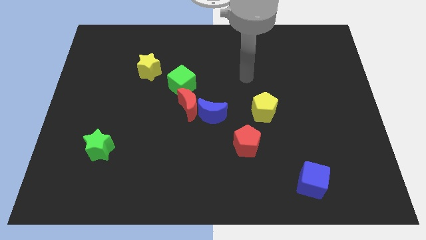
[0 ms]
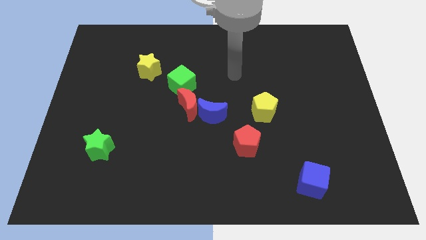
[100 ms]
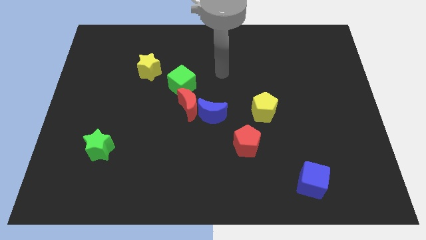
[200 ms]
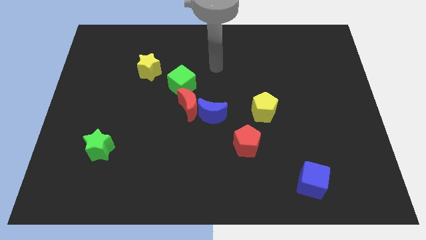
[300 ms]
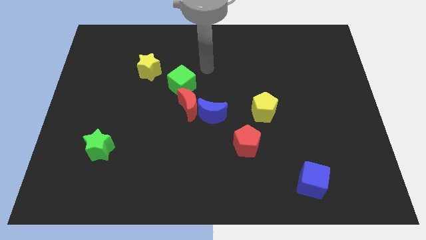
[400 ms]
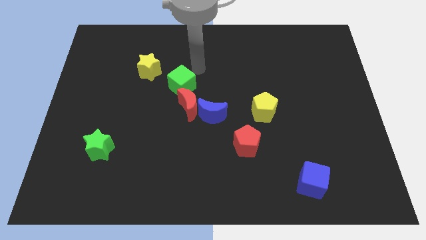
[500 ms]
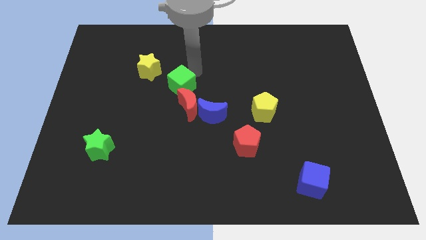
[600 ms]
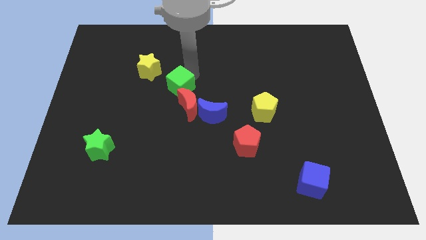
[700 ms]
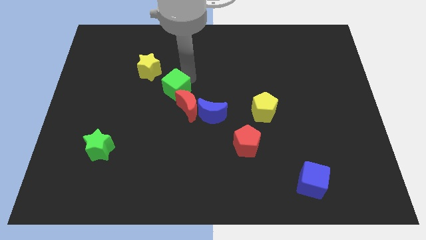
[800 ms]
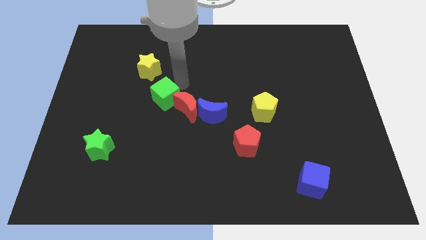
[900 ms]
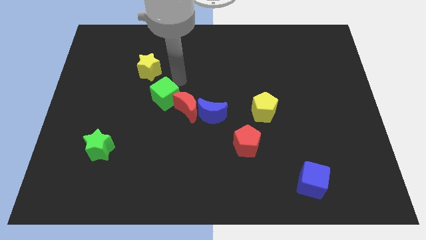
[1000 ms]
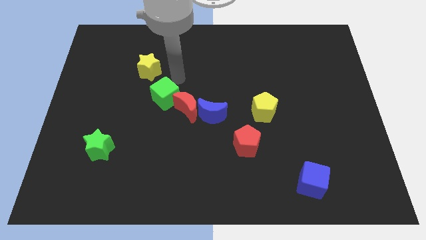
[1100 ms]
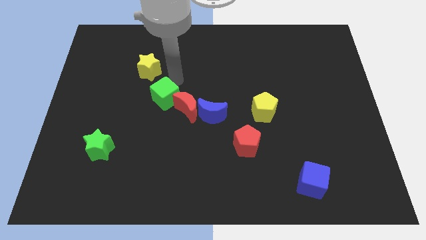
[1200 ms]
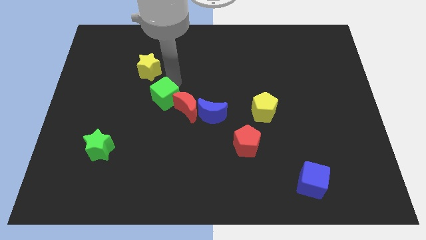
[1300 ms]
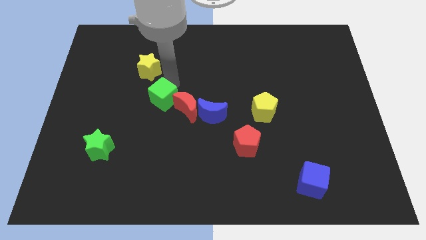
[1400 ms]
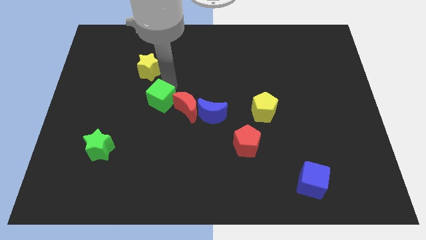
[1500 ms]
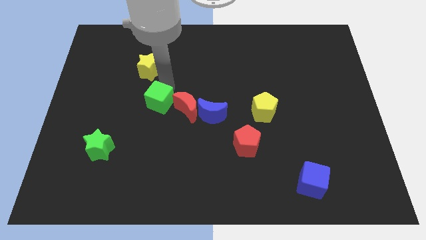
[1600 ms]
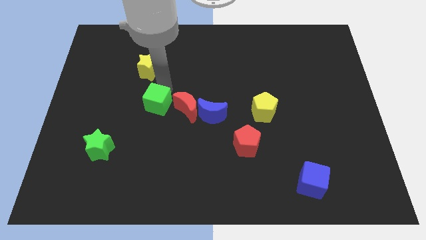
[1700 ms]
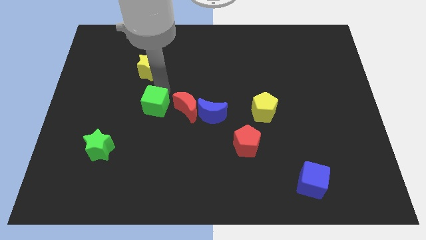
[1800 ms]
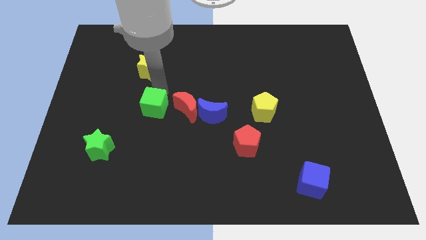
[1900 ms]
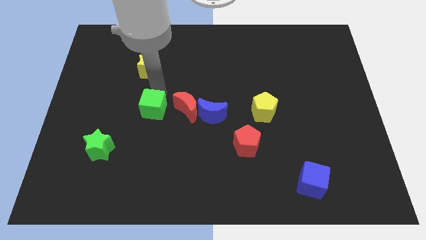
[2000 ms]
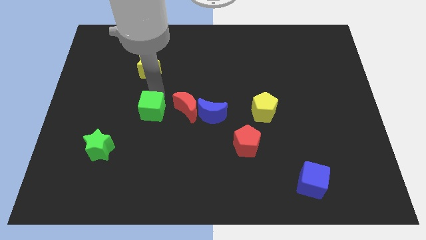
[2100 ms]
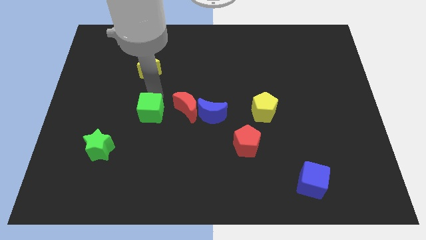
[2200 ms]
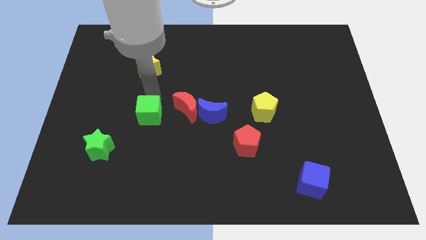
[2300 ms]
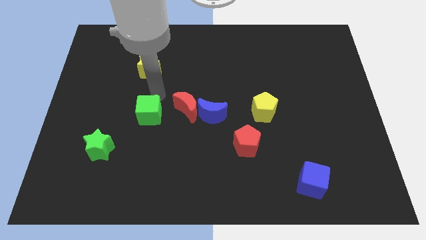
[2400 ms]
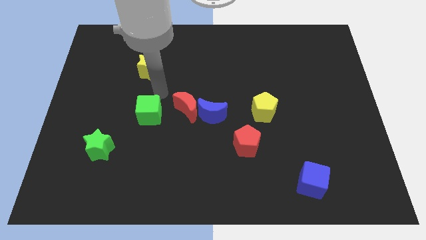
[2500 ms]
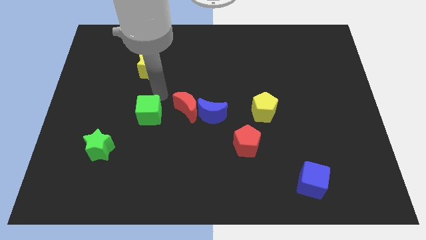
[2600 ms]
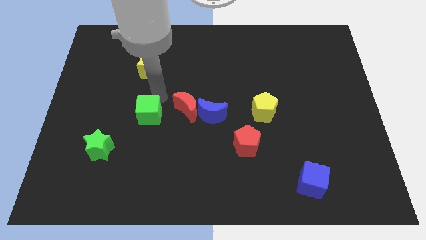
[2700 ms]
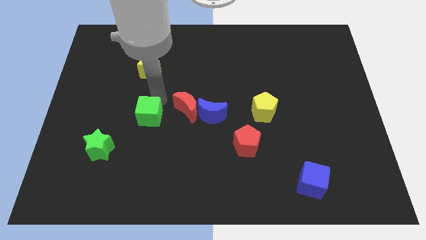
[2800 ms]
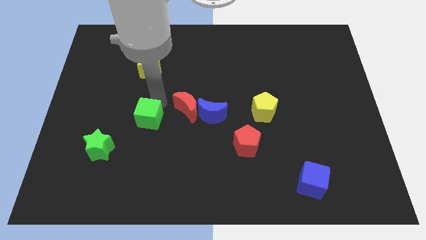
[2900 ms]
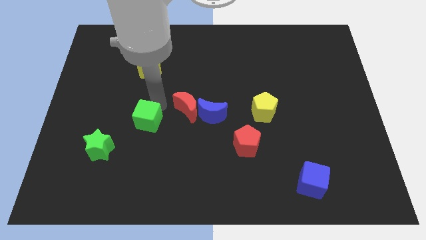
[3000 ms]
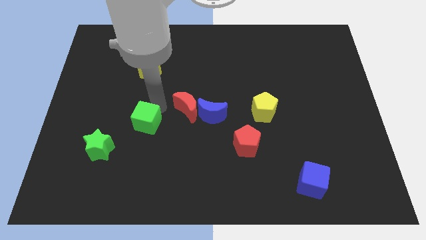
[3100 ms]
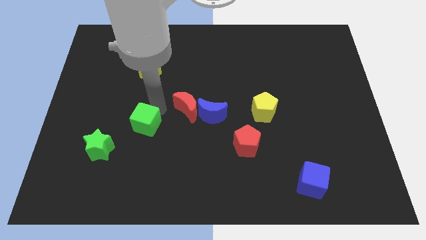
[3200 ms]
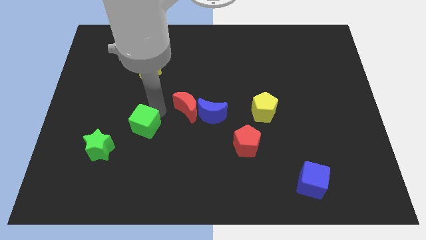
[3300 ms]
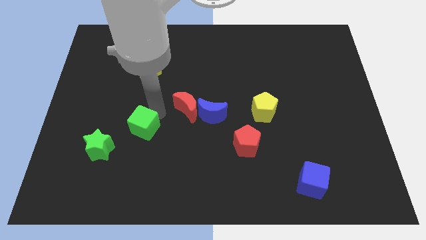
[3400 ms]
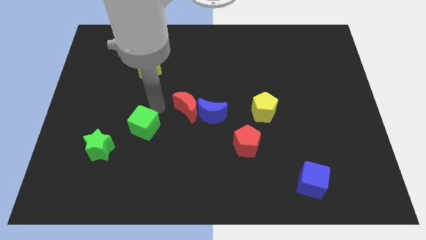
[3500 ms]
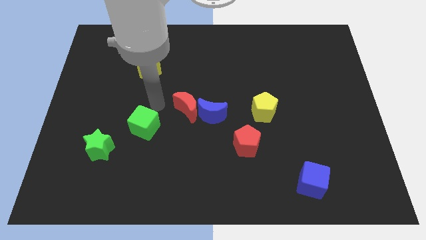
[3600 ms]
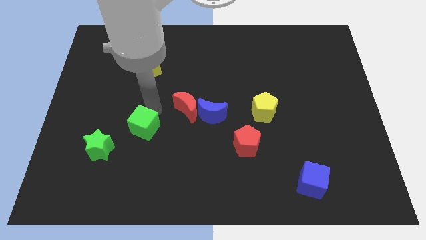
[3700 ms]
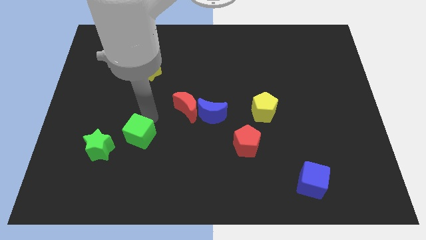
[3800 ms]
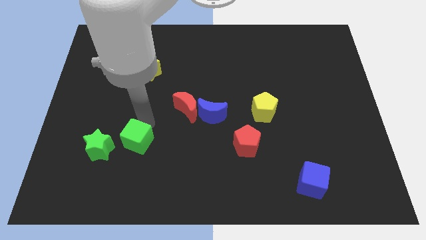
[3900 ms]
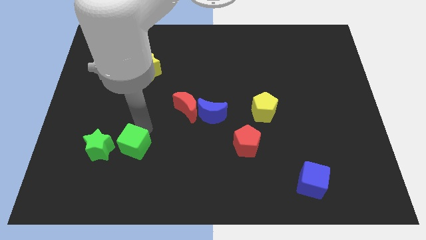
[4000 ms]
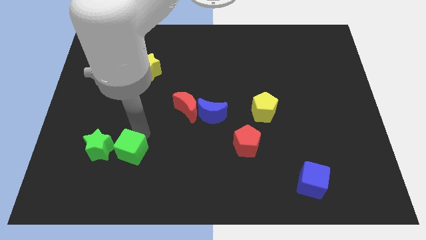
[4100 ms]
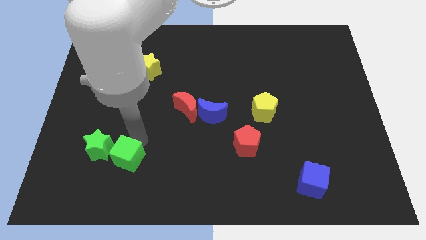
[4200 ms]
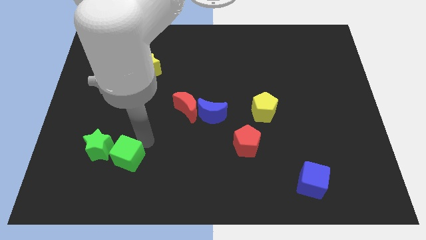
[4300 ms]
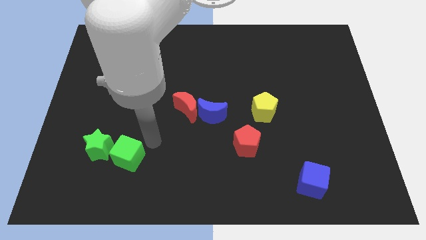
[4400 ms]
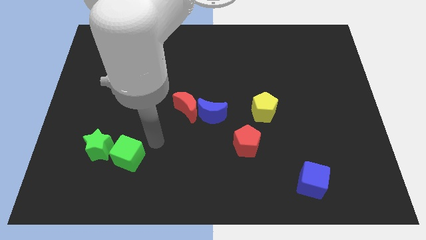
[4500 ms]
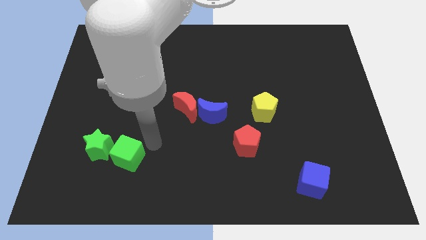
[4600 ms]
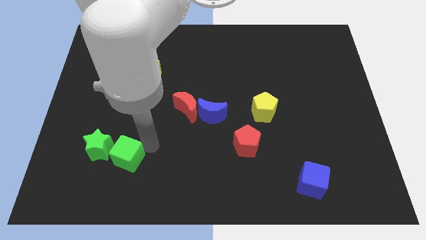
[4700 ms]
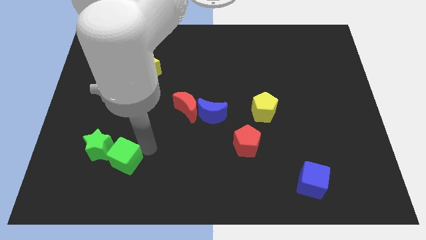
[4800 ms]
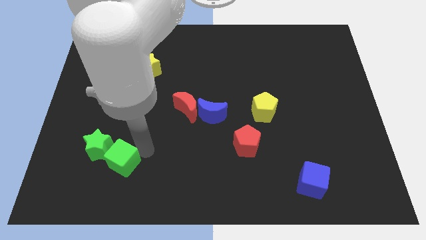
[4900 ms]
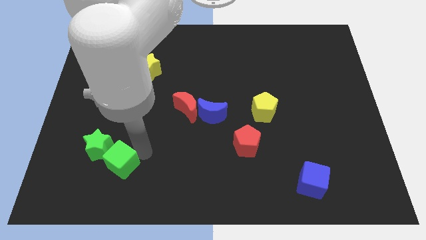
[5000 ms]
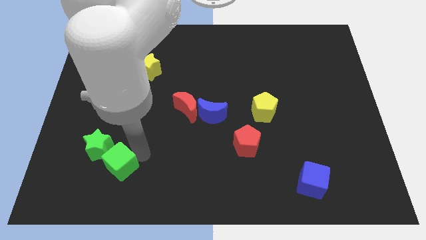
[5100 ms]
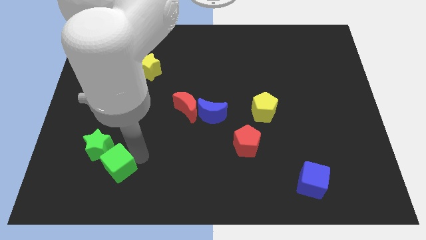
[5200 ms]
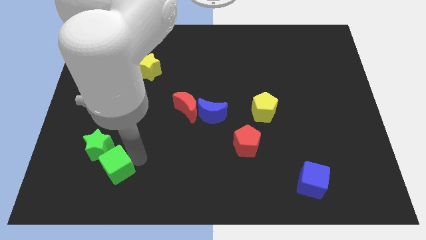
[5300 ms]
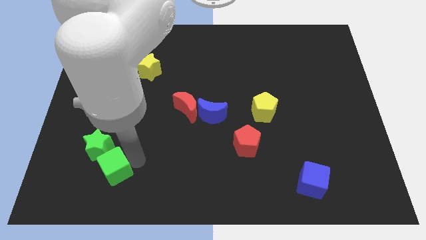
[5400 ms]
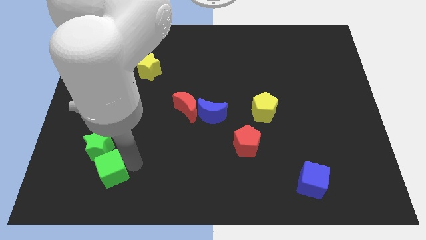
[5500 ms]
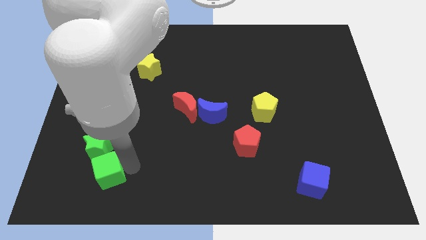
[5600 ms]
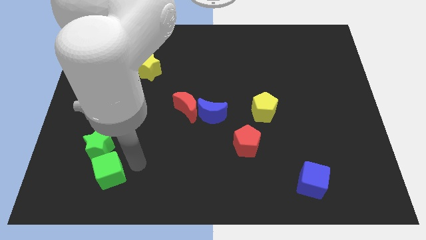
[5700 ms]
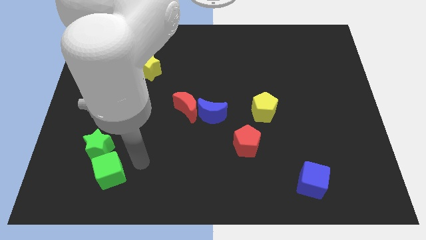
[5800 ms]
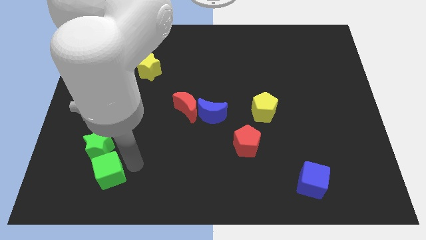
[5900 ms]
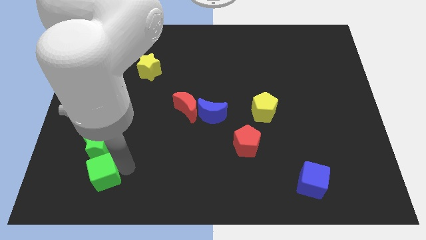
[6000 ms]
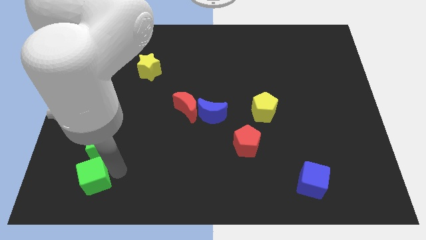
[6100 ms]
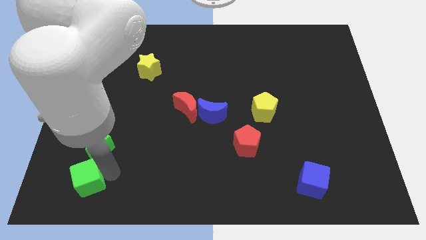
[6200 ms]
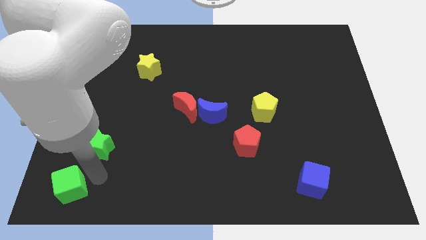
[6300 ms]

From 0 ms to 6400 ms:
put the green cube to the bottom left corner
